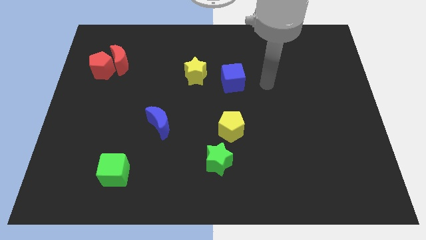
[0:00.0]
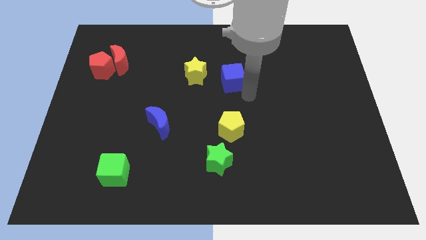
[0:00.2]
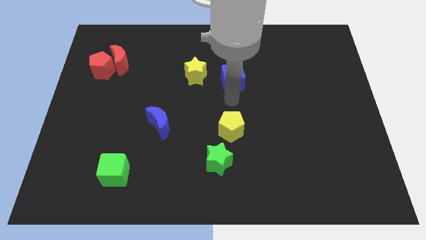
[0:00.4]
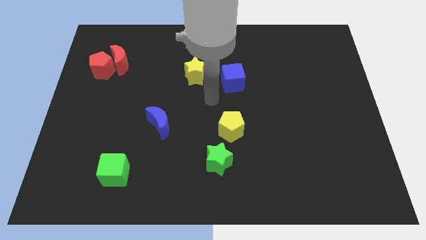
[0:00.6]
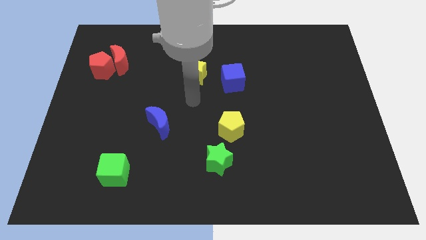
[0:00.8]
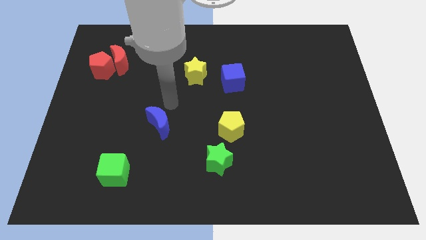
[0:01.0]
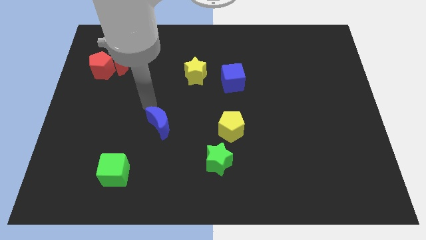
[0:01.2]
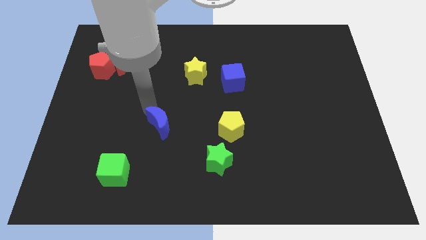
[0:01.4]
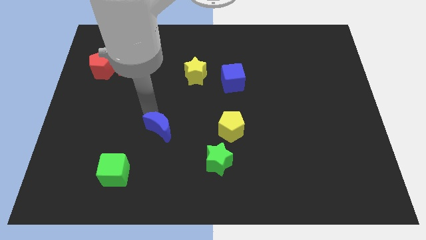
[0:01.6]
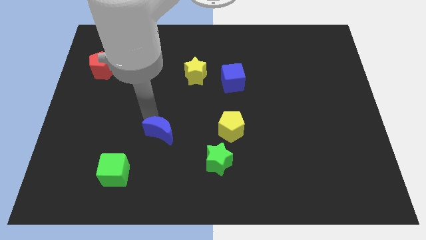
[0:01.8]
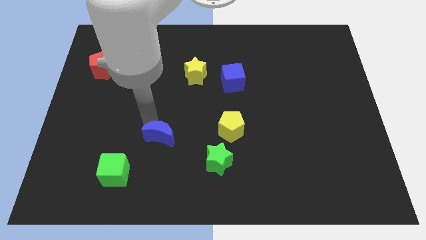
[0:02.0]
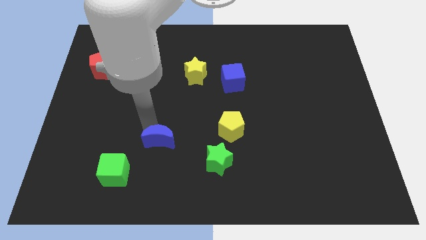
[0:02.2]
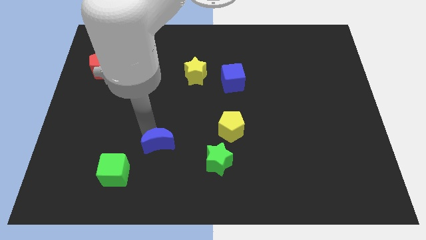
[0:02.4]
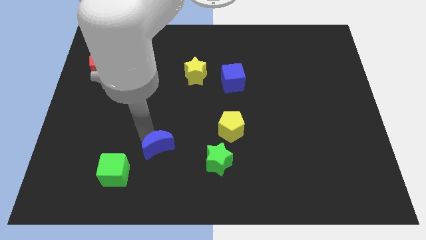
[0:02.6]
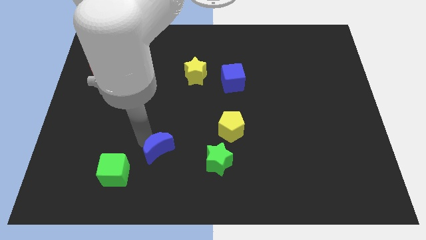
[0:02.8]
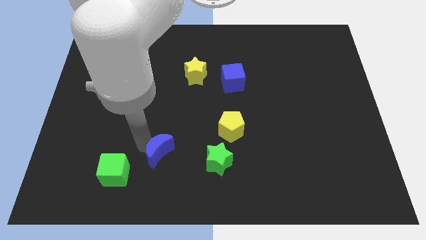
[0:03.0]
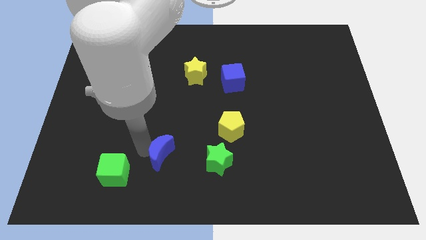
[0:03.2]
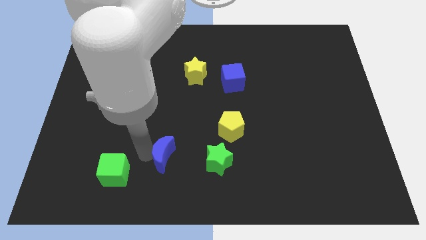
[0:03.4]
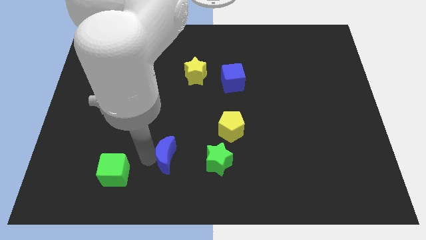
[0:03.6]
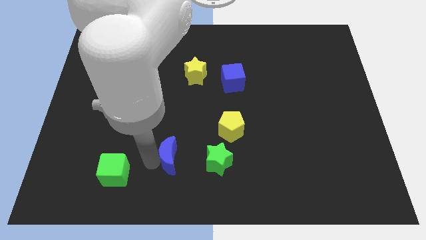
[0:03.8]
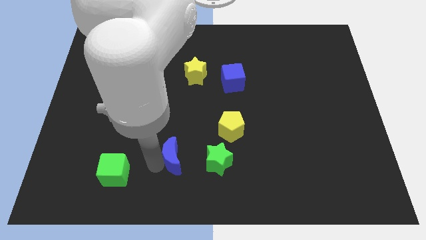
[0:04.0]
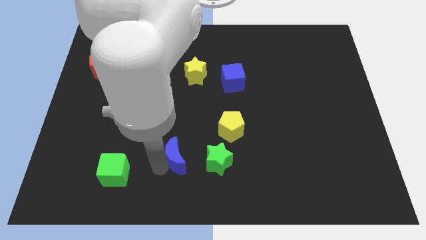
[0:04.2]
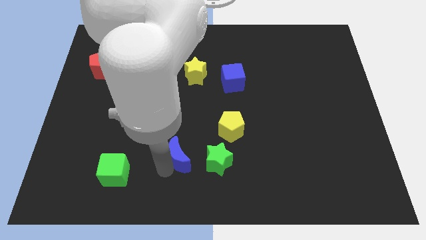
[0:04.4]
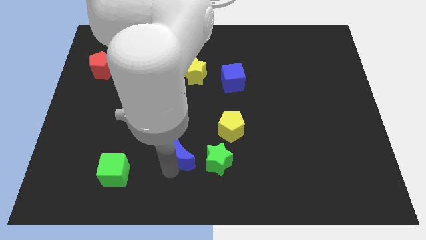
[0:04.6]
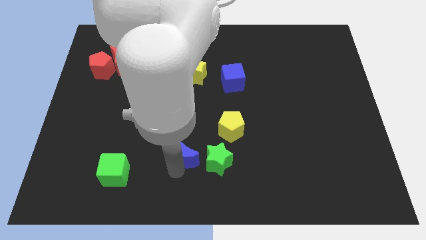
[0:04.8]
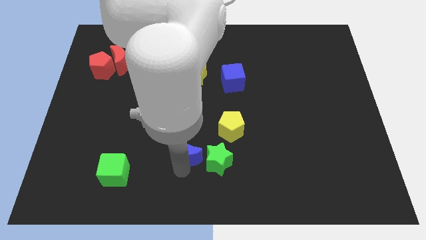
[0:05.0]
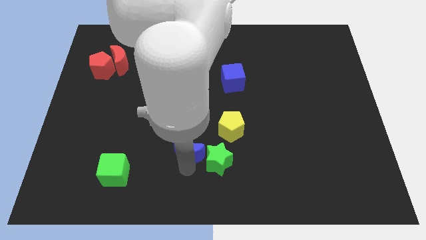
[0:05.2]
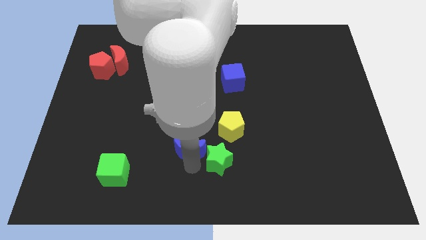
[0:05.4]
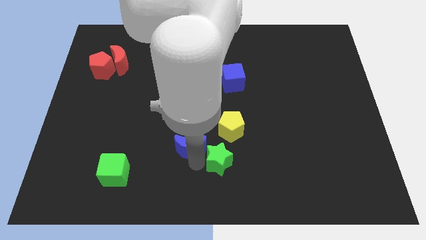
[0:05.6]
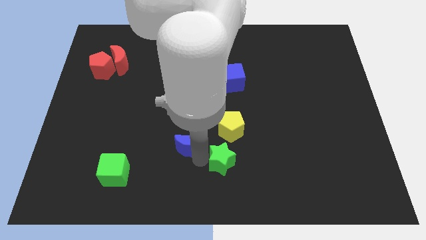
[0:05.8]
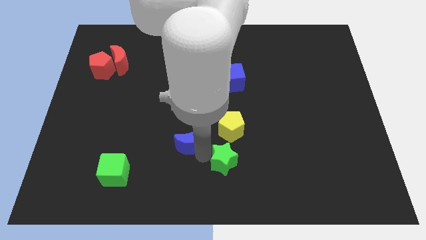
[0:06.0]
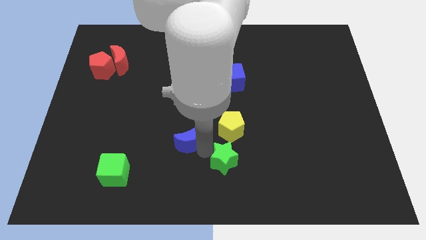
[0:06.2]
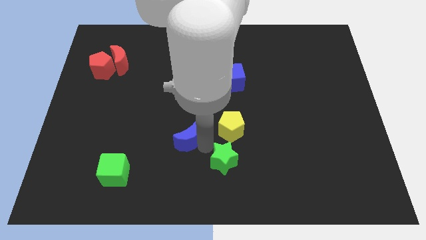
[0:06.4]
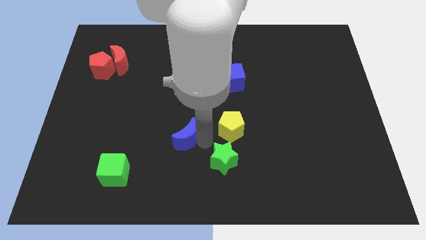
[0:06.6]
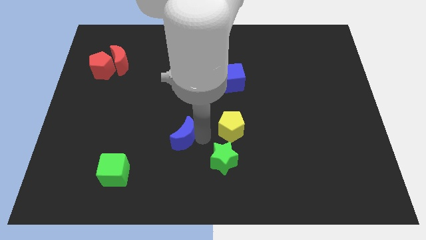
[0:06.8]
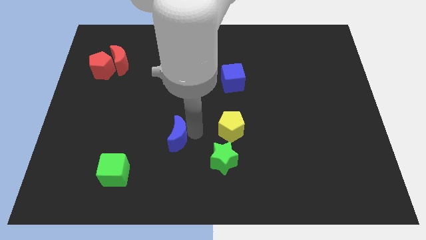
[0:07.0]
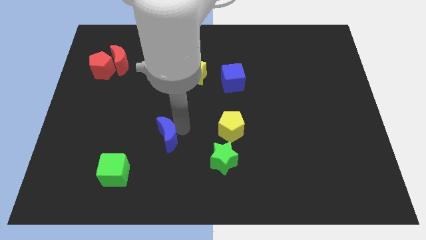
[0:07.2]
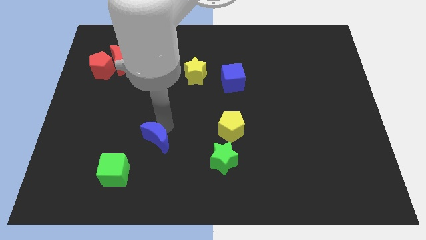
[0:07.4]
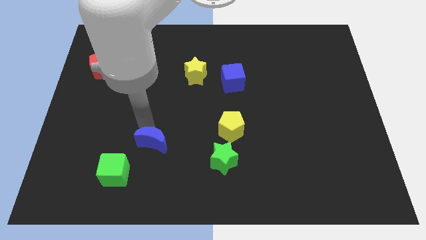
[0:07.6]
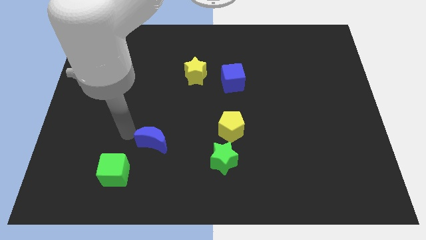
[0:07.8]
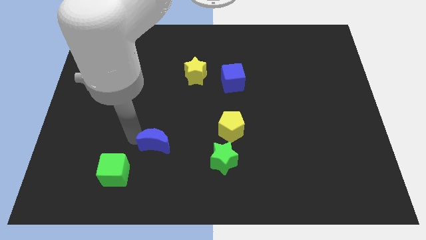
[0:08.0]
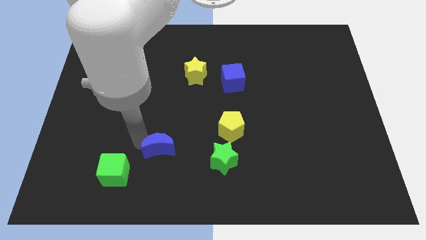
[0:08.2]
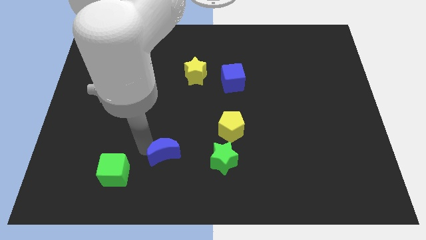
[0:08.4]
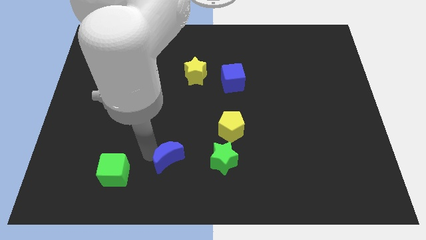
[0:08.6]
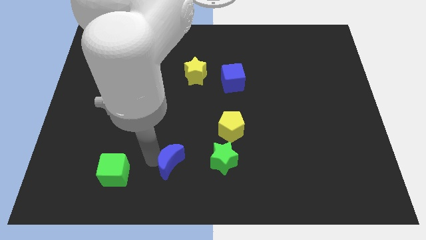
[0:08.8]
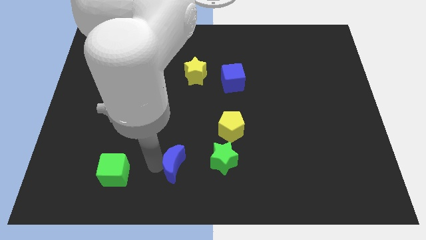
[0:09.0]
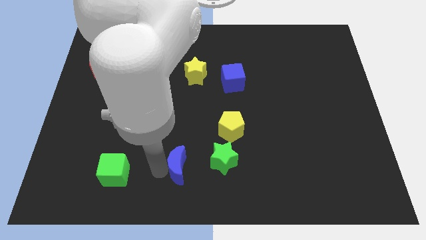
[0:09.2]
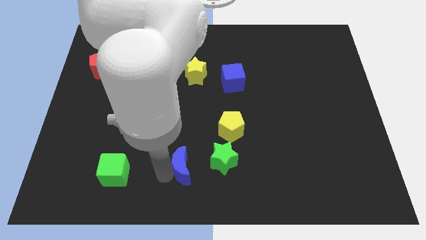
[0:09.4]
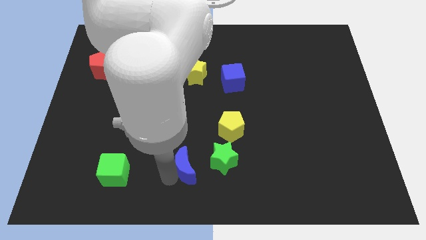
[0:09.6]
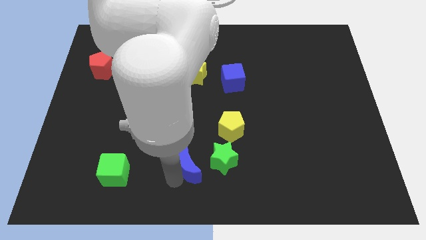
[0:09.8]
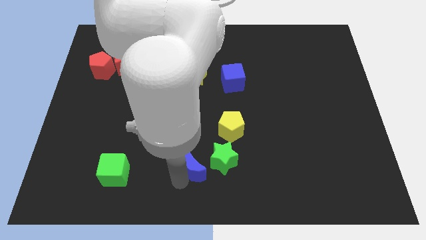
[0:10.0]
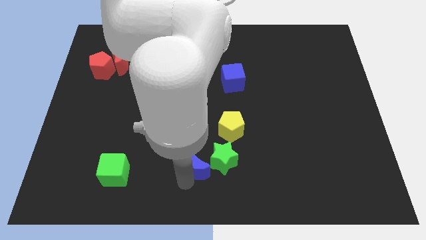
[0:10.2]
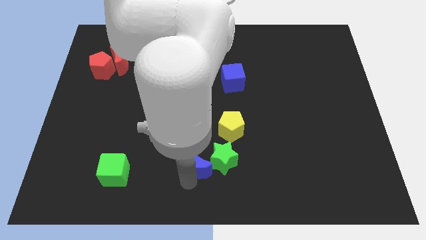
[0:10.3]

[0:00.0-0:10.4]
move the blue moon close to the green star

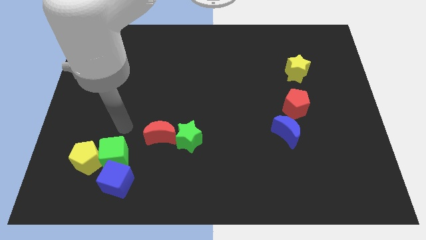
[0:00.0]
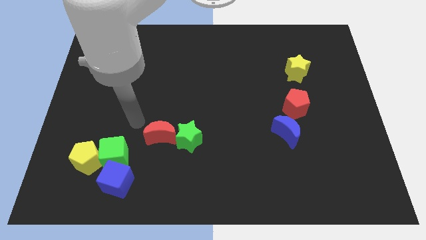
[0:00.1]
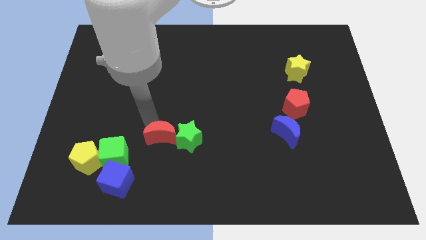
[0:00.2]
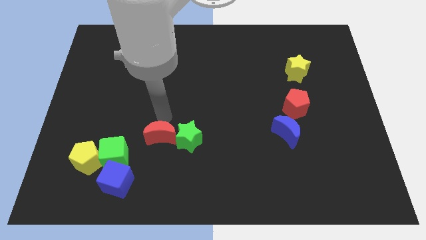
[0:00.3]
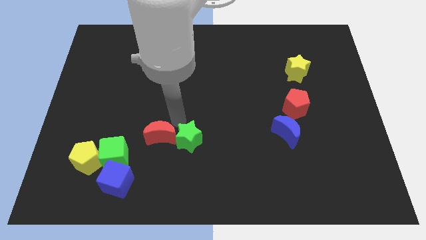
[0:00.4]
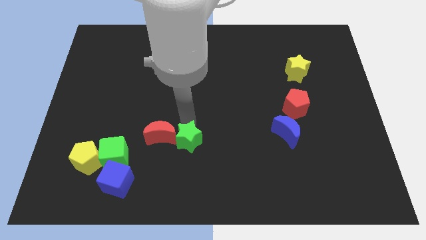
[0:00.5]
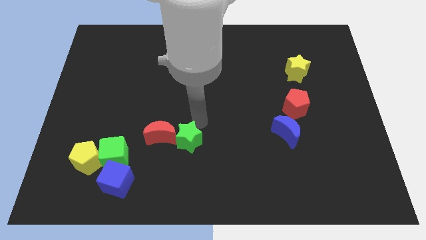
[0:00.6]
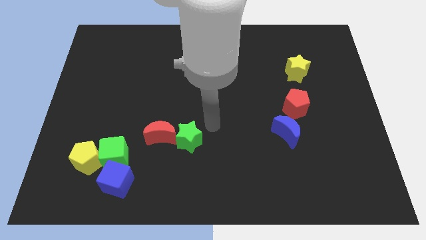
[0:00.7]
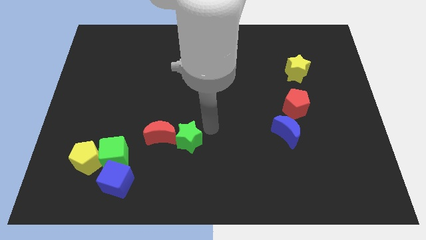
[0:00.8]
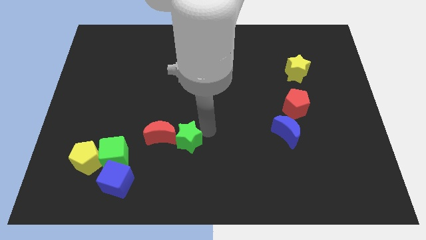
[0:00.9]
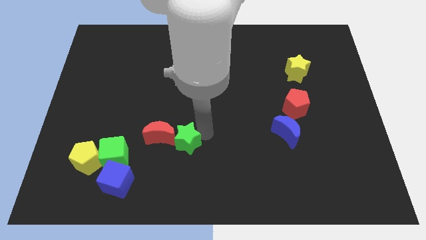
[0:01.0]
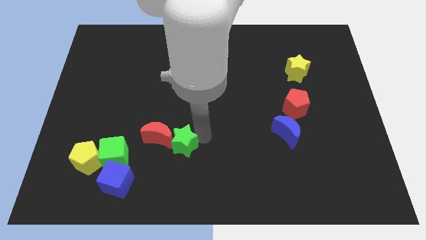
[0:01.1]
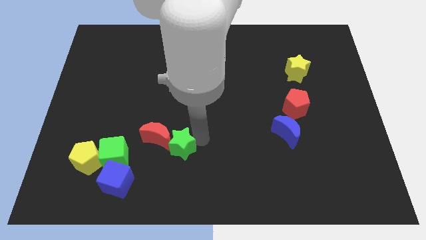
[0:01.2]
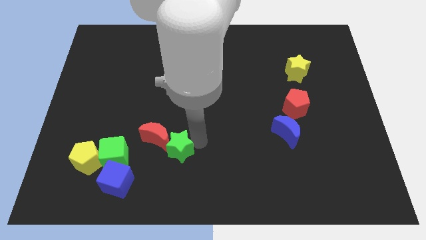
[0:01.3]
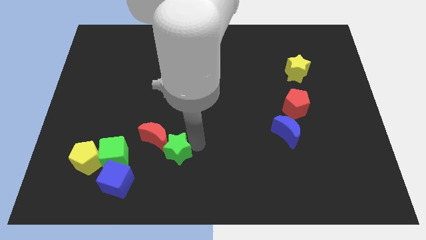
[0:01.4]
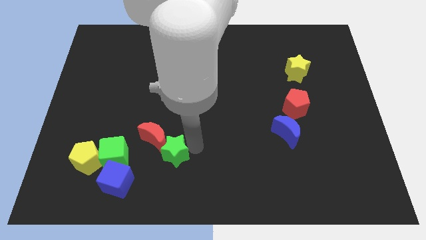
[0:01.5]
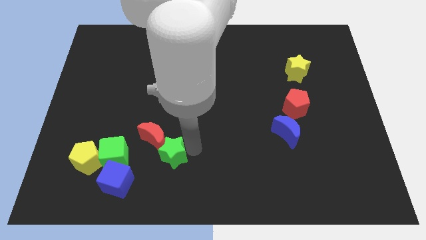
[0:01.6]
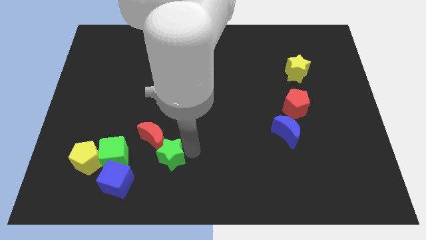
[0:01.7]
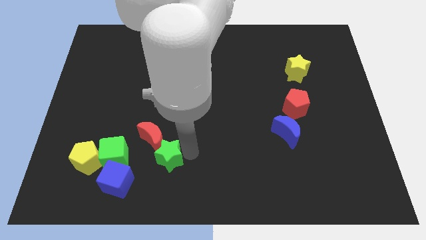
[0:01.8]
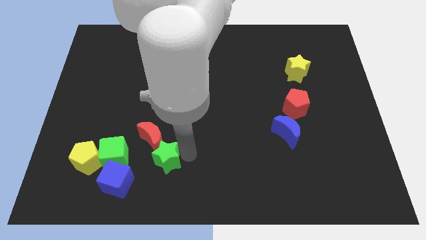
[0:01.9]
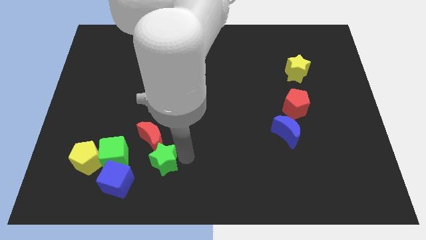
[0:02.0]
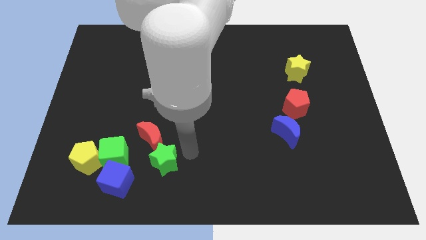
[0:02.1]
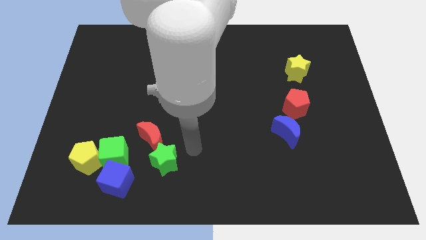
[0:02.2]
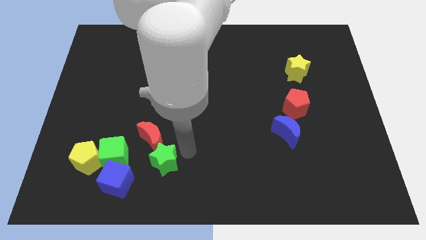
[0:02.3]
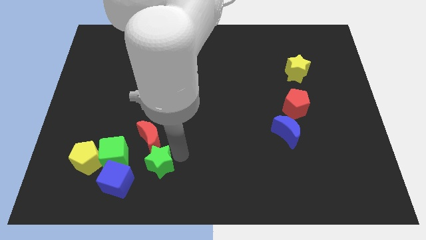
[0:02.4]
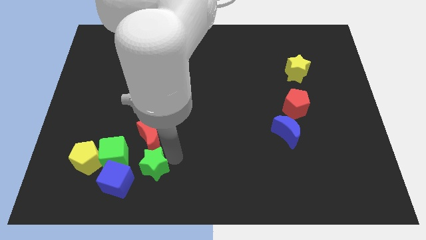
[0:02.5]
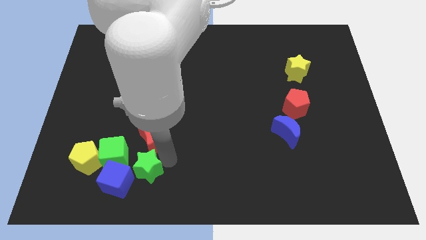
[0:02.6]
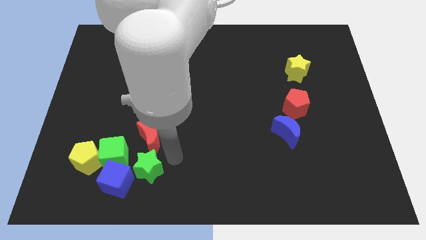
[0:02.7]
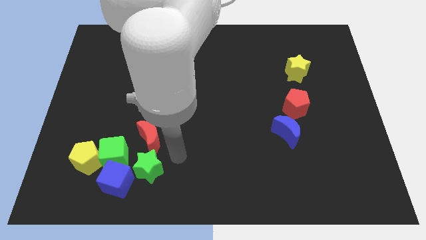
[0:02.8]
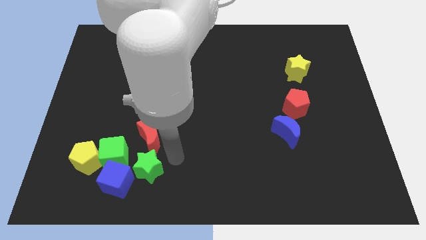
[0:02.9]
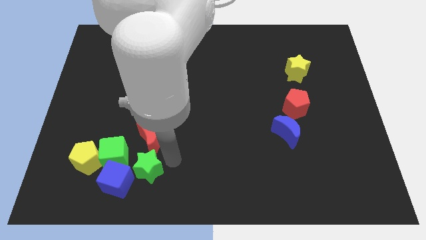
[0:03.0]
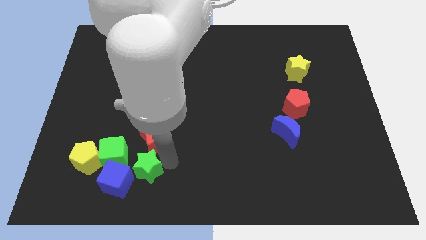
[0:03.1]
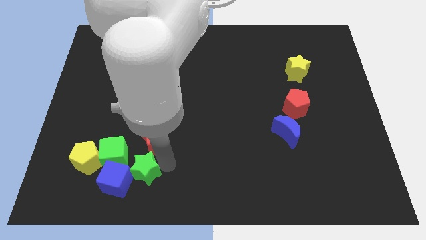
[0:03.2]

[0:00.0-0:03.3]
push the green star towards the blue cube
